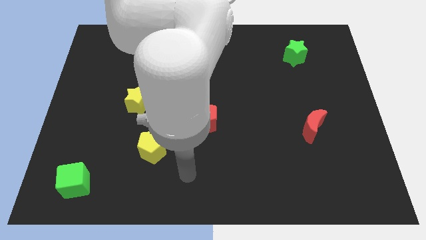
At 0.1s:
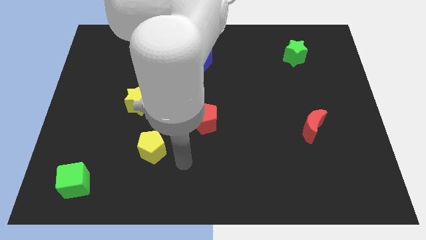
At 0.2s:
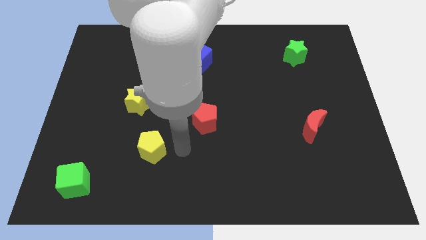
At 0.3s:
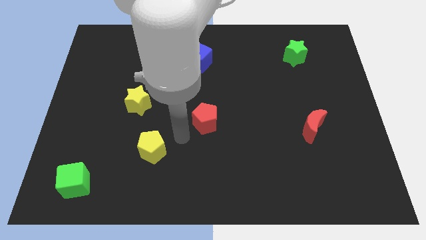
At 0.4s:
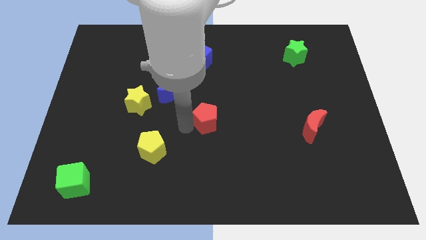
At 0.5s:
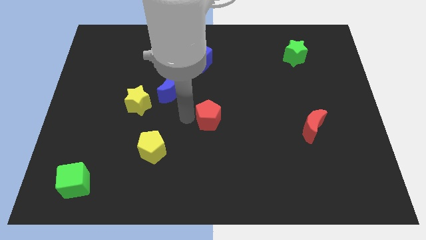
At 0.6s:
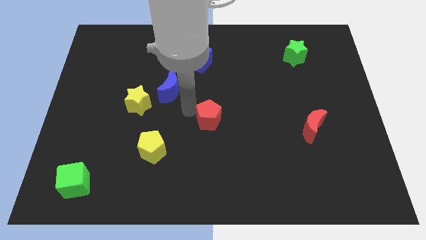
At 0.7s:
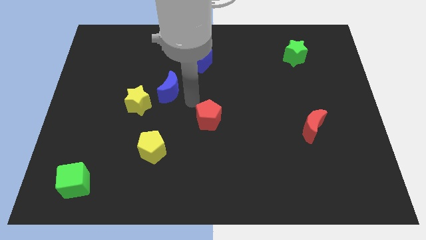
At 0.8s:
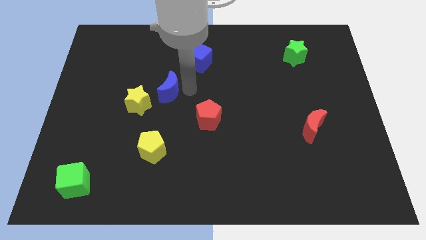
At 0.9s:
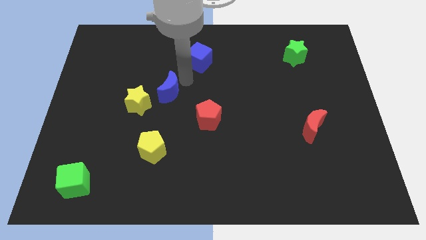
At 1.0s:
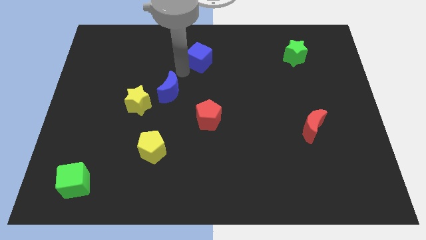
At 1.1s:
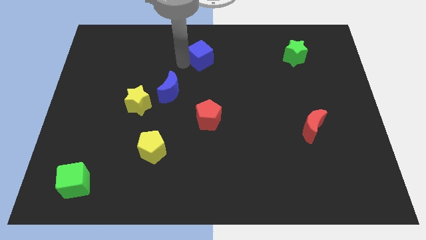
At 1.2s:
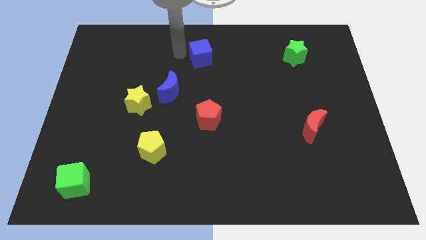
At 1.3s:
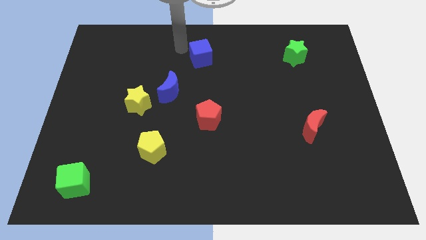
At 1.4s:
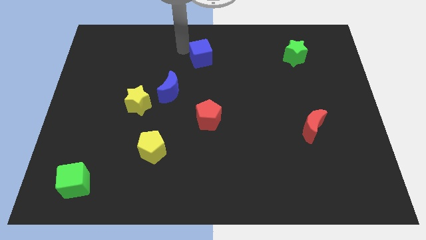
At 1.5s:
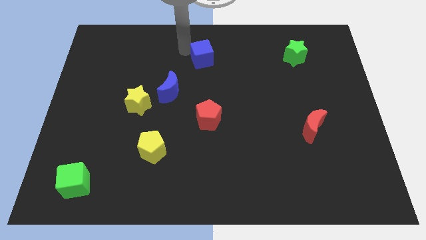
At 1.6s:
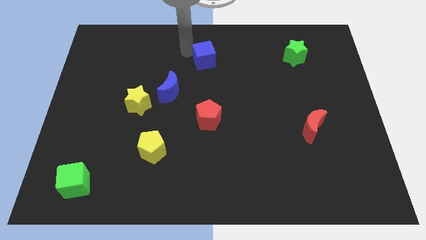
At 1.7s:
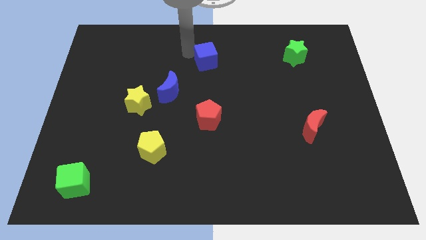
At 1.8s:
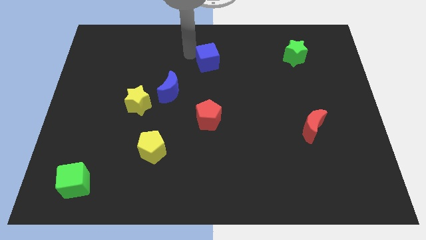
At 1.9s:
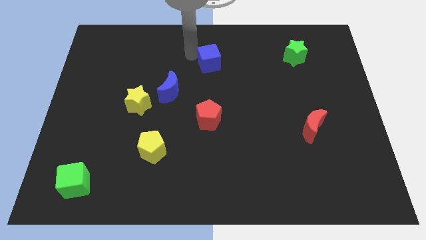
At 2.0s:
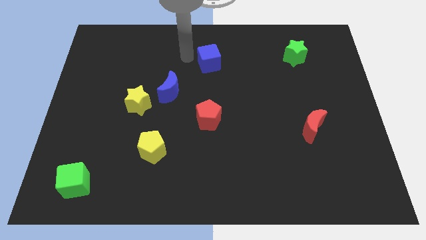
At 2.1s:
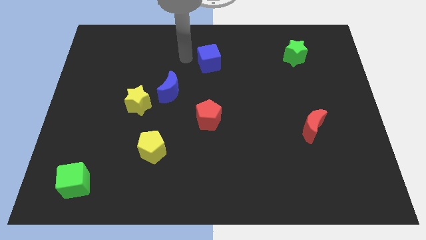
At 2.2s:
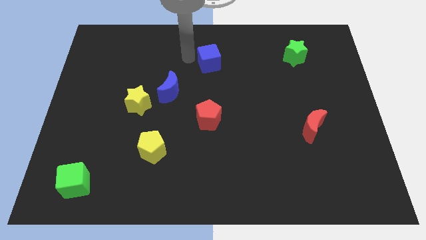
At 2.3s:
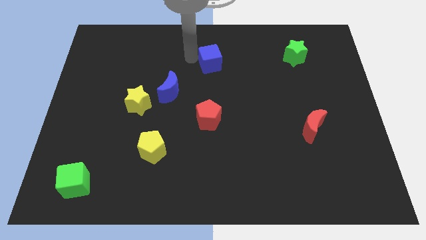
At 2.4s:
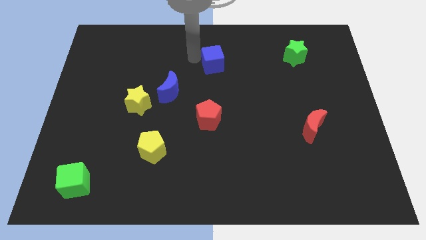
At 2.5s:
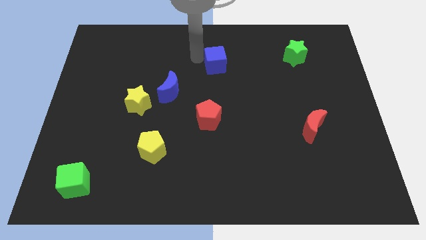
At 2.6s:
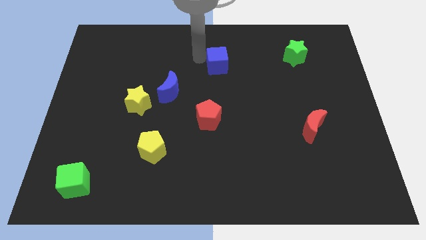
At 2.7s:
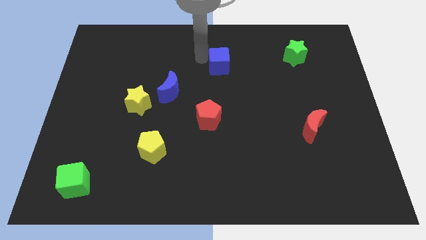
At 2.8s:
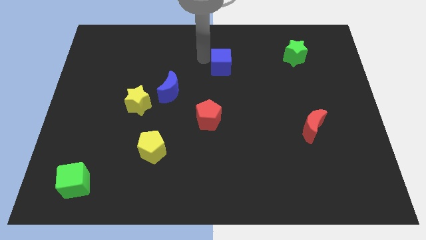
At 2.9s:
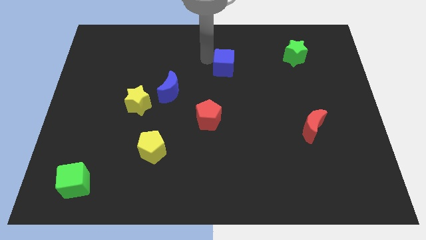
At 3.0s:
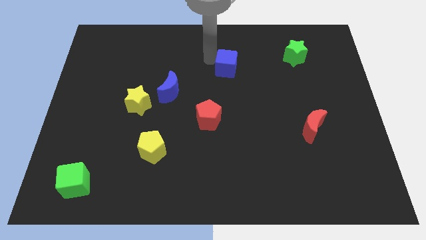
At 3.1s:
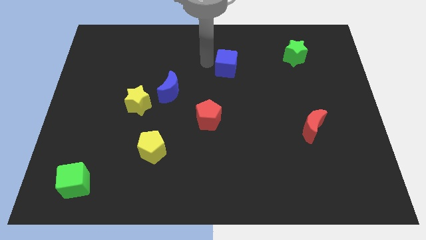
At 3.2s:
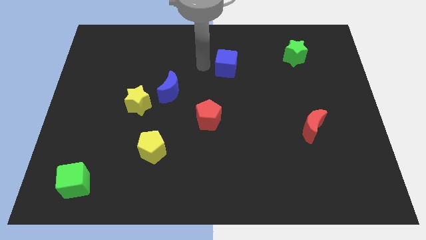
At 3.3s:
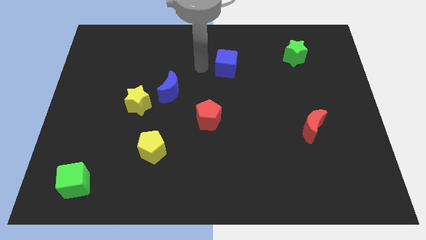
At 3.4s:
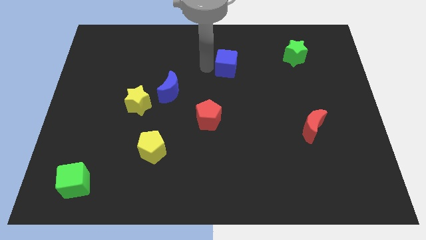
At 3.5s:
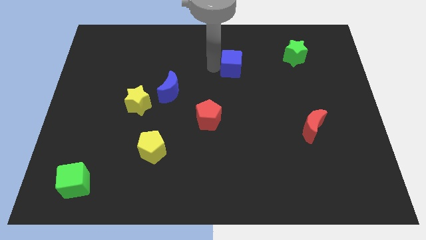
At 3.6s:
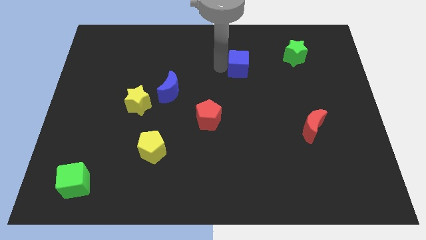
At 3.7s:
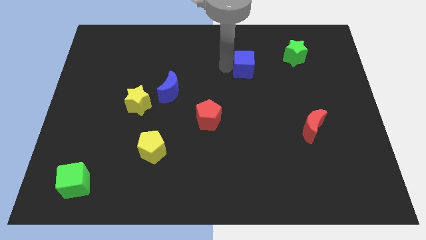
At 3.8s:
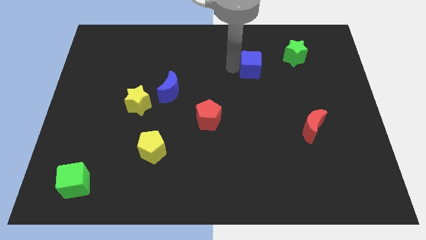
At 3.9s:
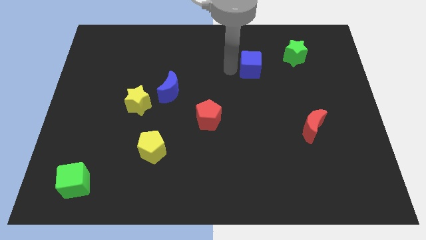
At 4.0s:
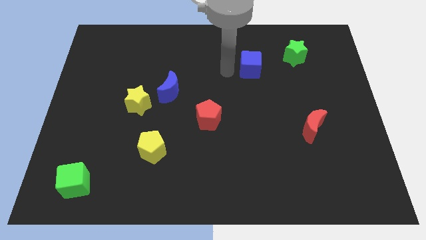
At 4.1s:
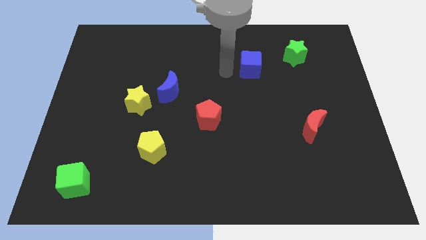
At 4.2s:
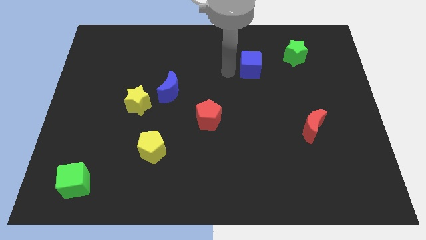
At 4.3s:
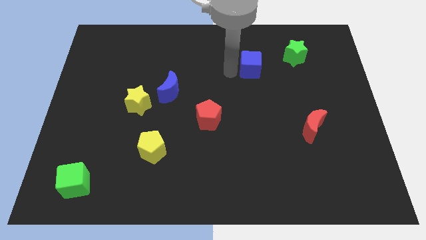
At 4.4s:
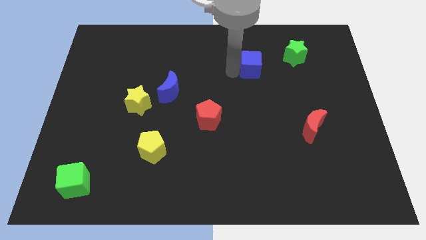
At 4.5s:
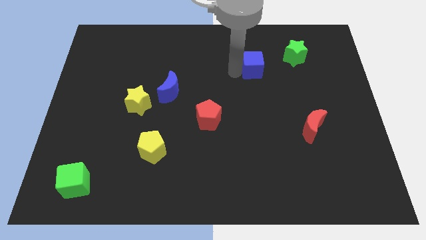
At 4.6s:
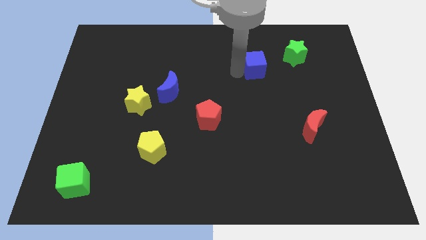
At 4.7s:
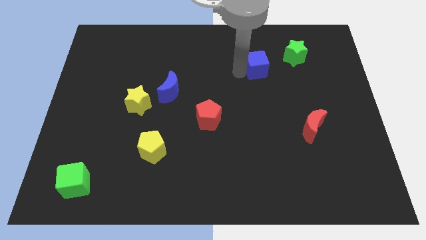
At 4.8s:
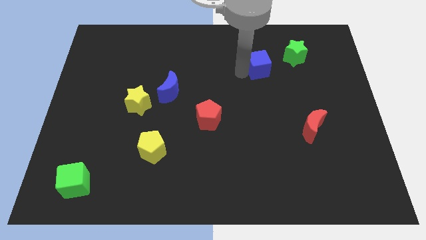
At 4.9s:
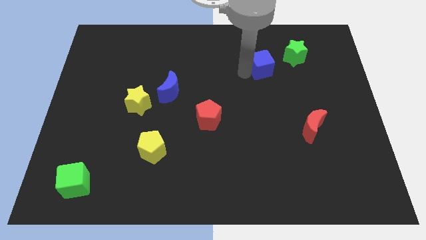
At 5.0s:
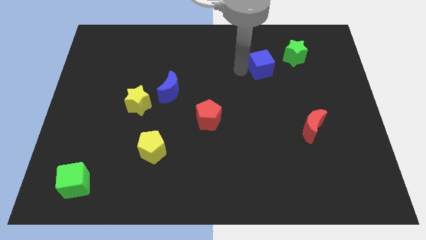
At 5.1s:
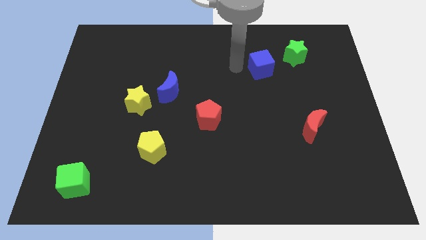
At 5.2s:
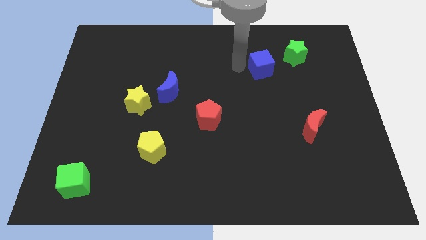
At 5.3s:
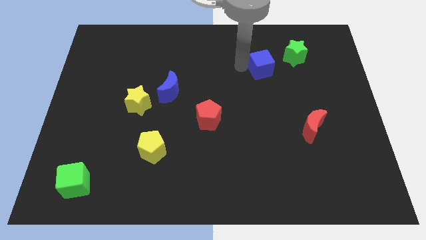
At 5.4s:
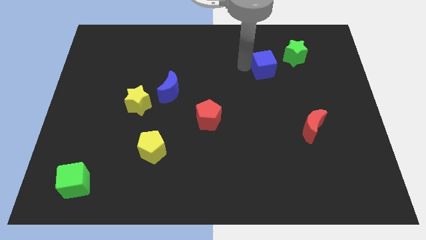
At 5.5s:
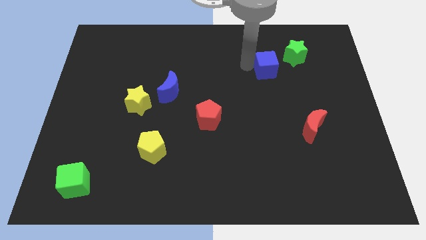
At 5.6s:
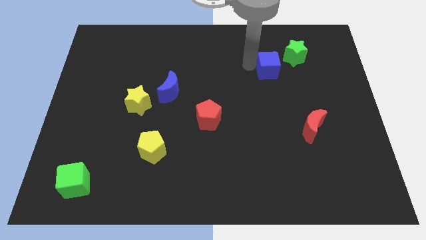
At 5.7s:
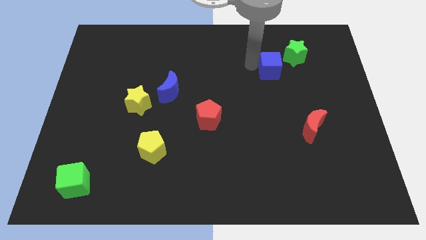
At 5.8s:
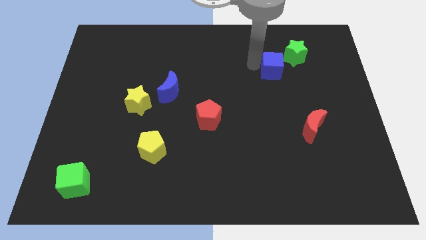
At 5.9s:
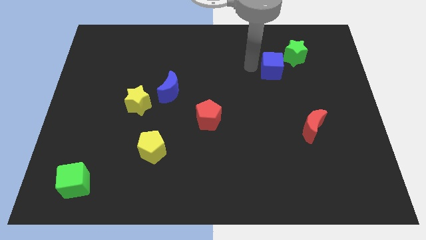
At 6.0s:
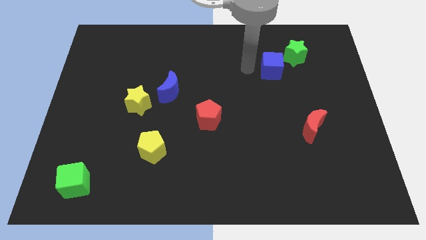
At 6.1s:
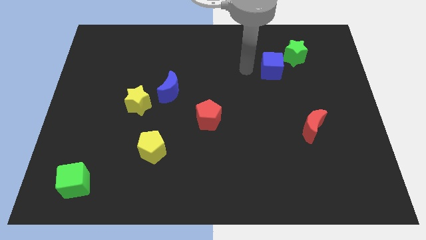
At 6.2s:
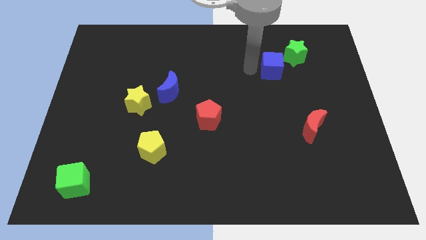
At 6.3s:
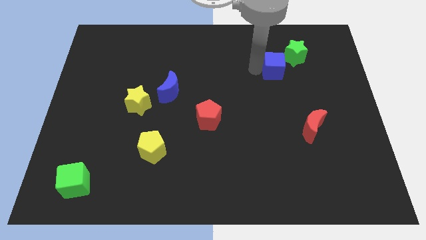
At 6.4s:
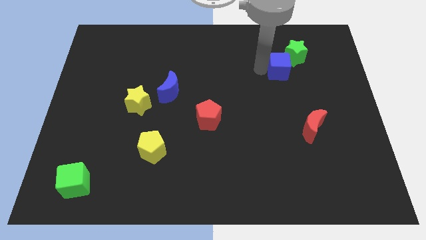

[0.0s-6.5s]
move the blue cube to the right

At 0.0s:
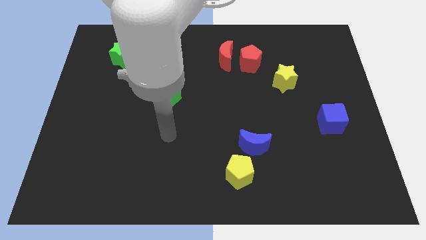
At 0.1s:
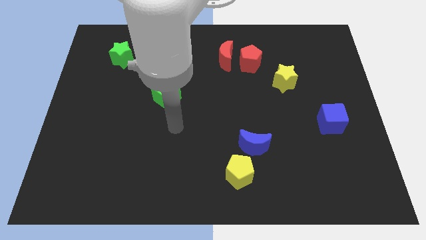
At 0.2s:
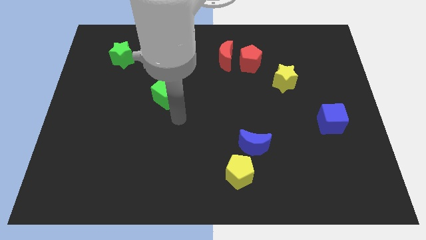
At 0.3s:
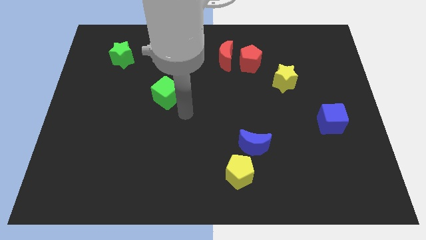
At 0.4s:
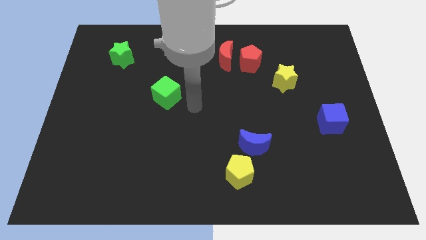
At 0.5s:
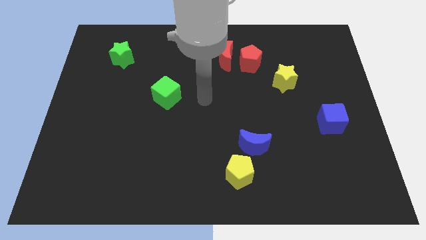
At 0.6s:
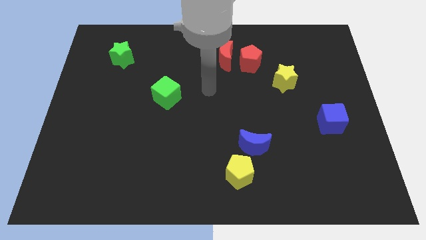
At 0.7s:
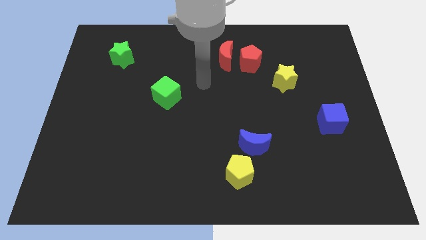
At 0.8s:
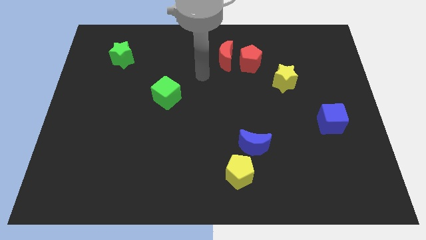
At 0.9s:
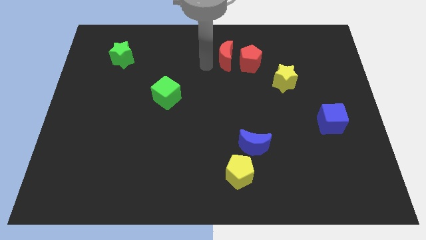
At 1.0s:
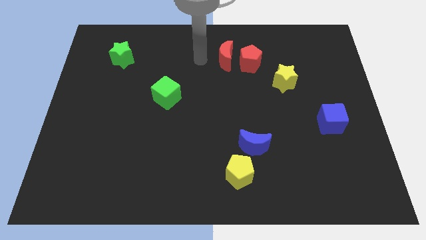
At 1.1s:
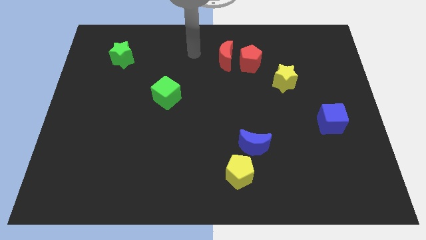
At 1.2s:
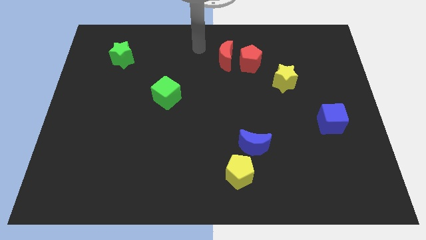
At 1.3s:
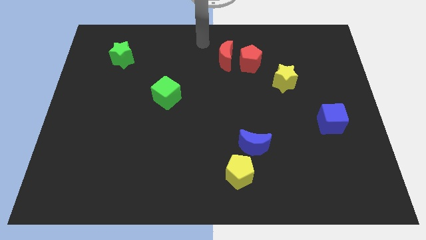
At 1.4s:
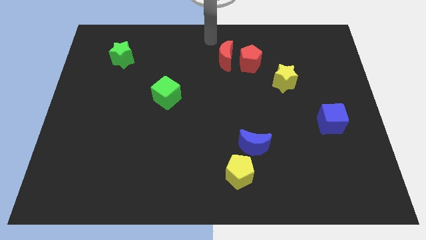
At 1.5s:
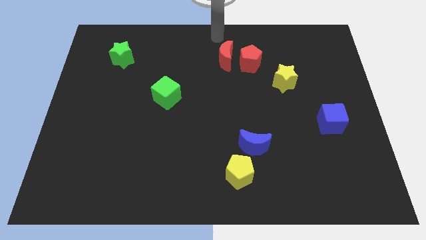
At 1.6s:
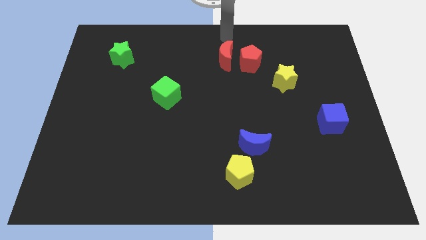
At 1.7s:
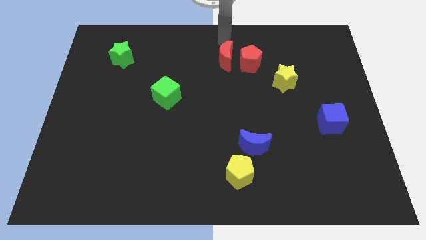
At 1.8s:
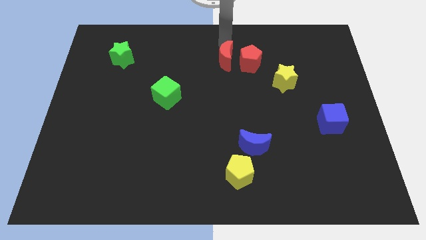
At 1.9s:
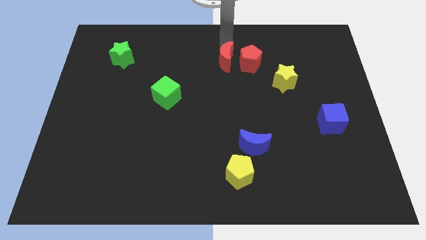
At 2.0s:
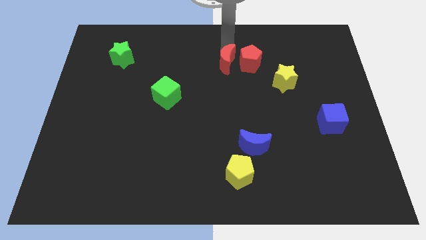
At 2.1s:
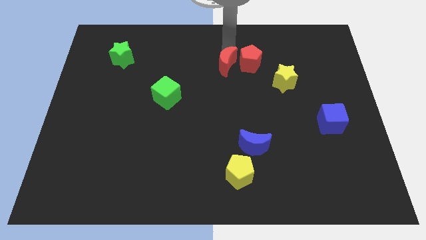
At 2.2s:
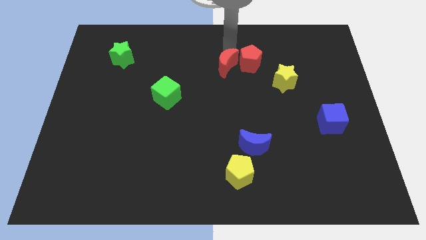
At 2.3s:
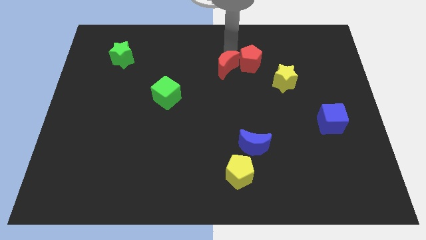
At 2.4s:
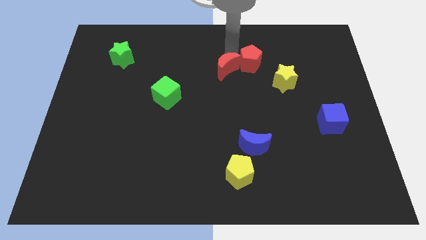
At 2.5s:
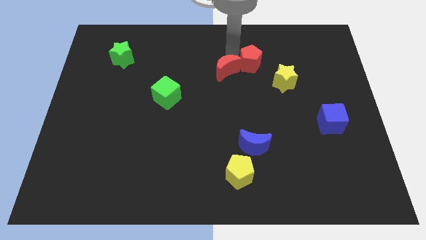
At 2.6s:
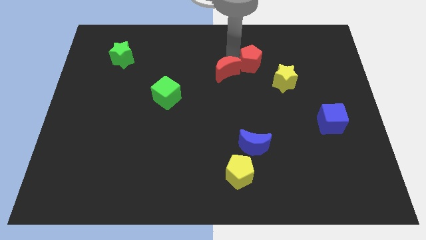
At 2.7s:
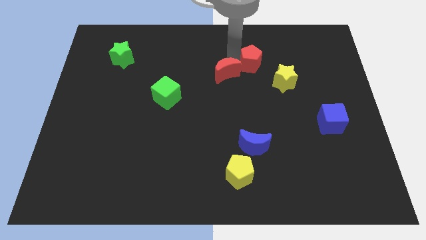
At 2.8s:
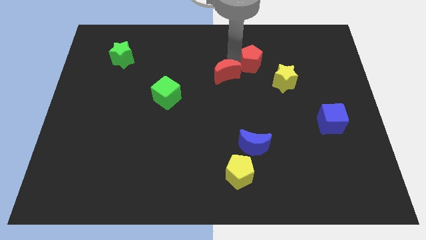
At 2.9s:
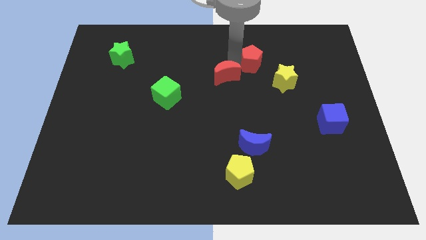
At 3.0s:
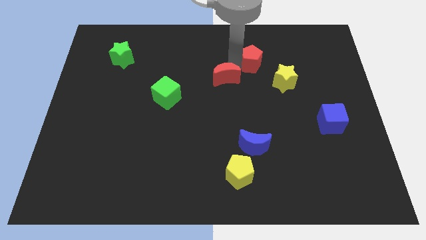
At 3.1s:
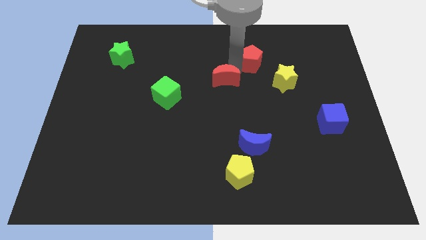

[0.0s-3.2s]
push the red moon a little bit downwards
